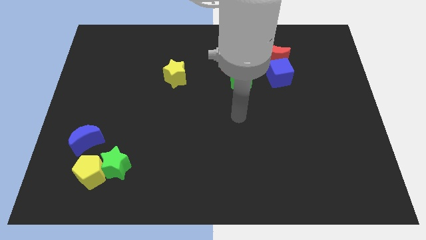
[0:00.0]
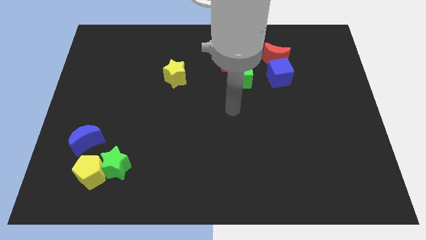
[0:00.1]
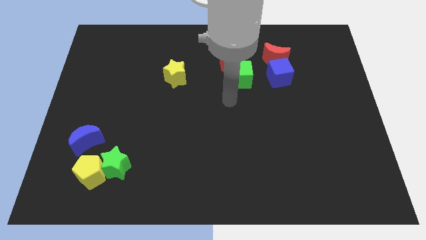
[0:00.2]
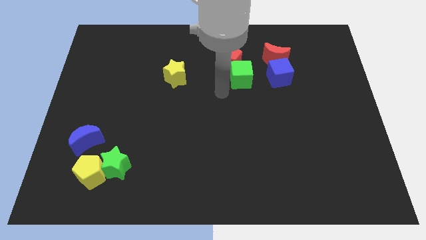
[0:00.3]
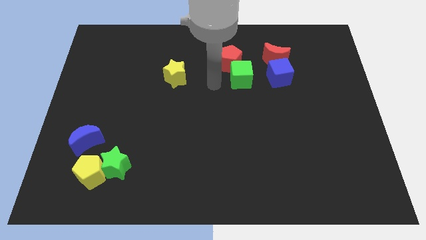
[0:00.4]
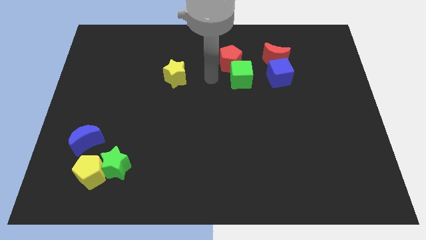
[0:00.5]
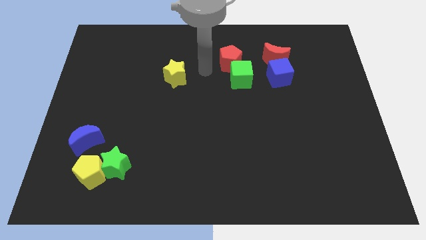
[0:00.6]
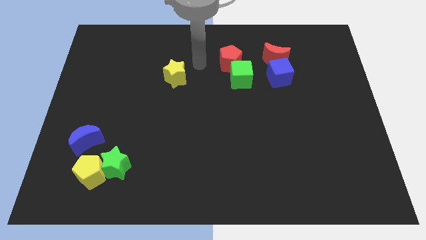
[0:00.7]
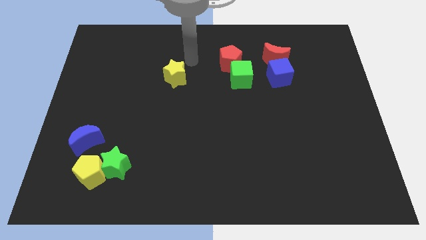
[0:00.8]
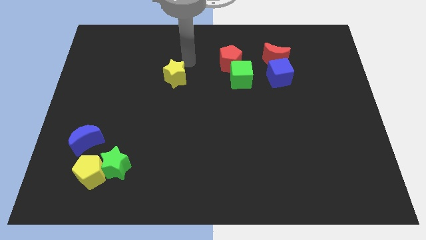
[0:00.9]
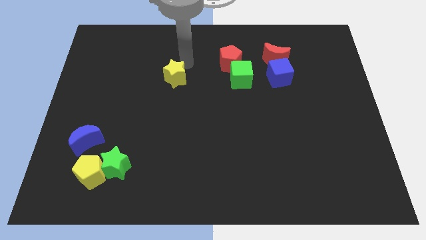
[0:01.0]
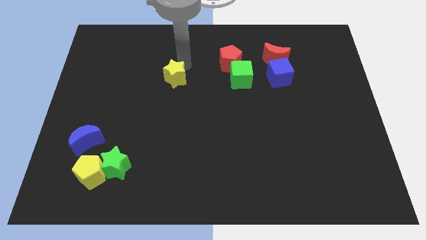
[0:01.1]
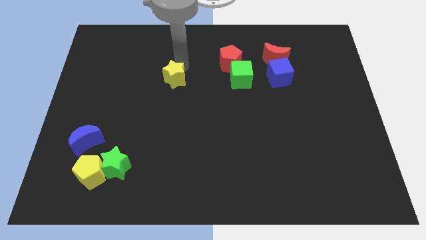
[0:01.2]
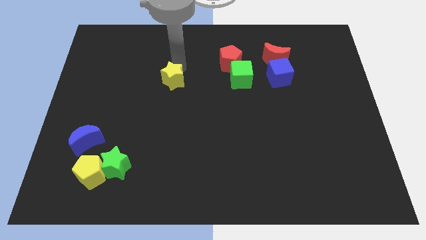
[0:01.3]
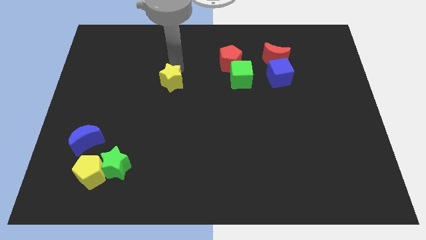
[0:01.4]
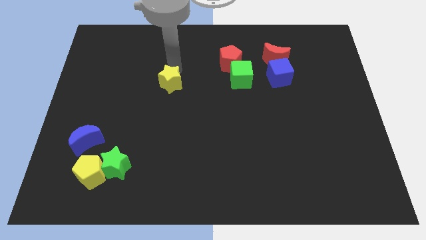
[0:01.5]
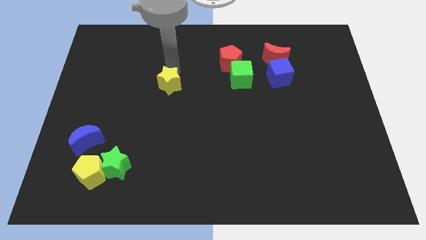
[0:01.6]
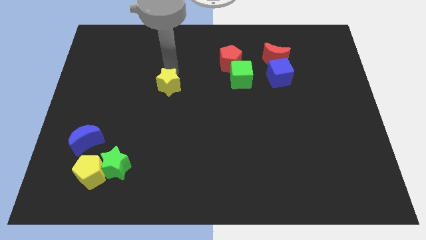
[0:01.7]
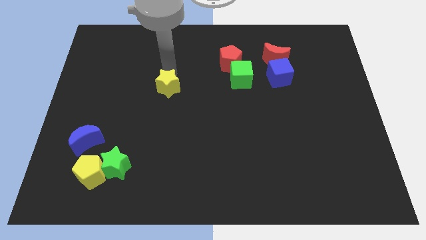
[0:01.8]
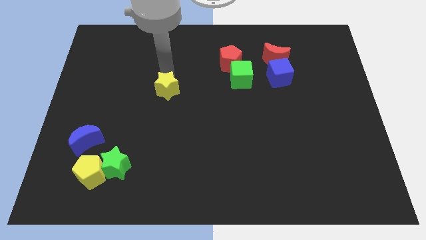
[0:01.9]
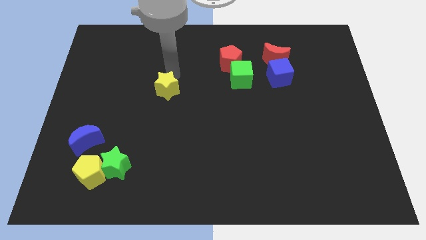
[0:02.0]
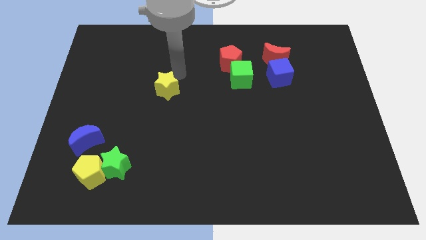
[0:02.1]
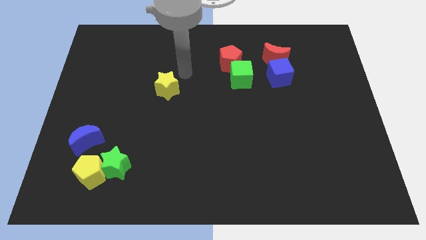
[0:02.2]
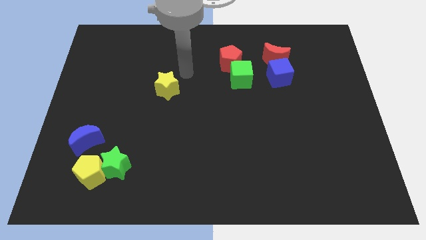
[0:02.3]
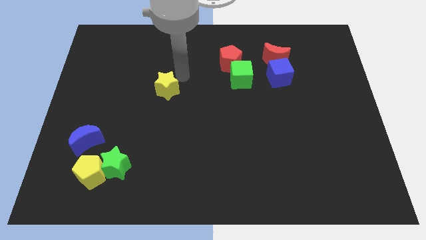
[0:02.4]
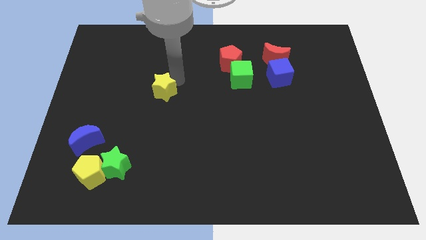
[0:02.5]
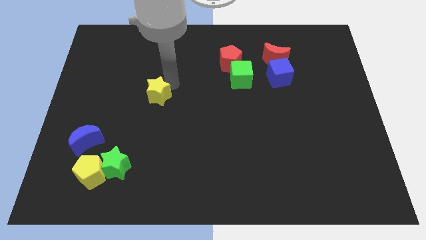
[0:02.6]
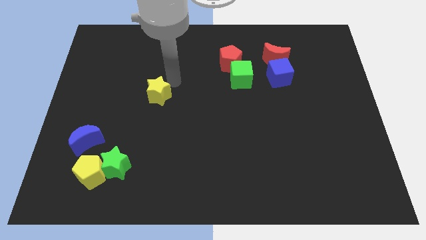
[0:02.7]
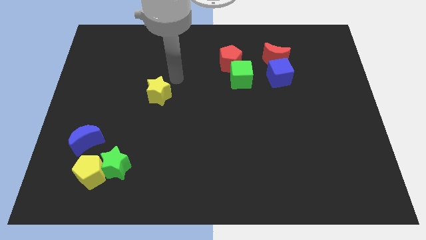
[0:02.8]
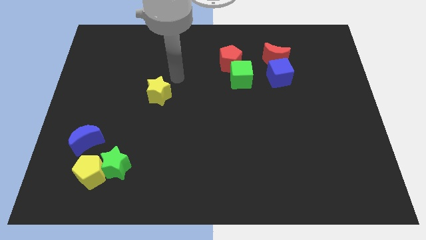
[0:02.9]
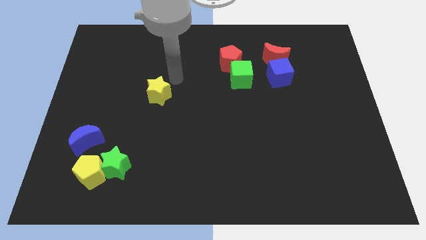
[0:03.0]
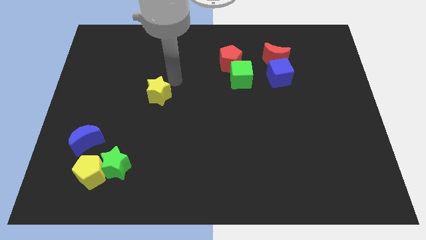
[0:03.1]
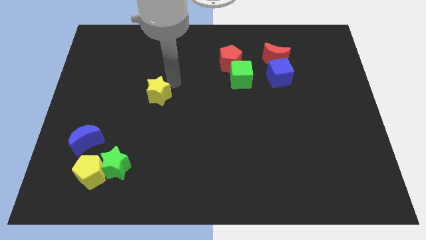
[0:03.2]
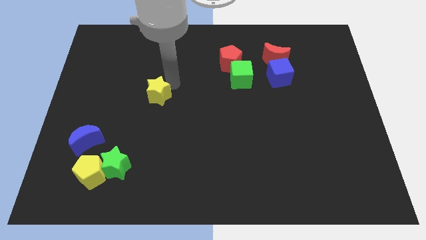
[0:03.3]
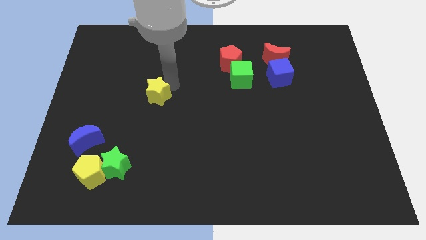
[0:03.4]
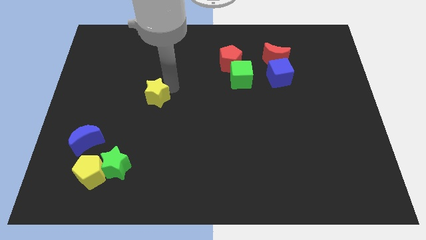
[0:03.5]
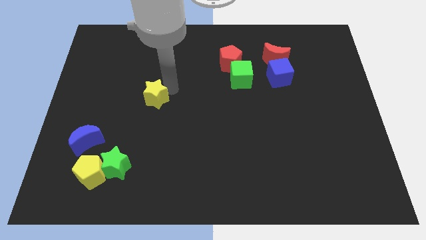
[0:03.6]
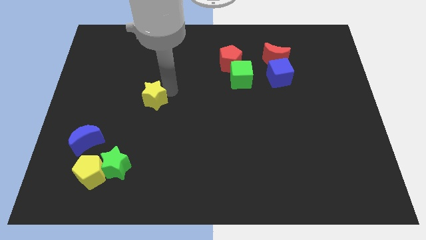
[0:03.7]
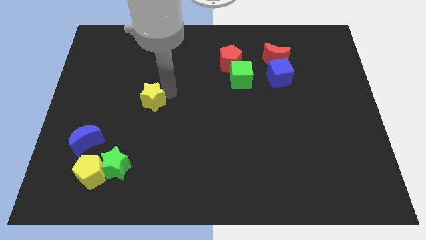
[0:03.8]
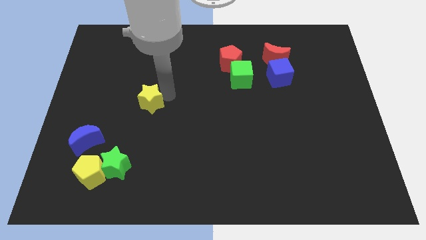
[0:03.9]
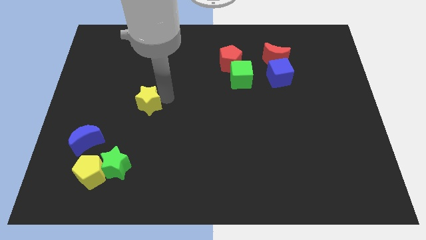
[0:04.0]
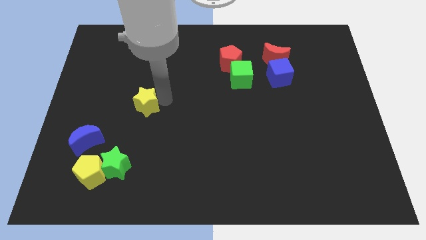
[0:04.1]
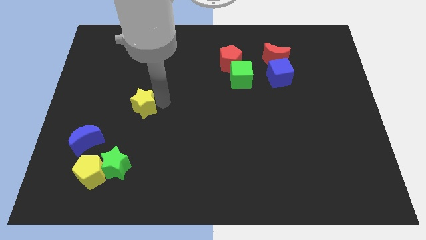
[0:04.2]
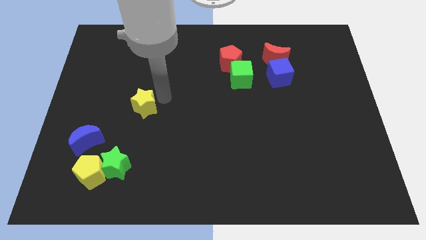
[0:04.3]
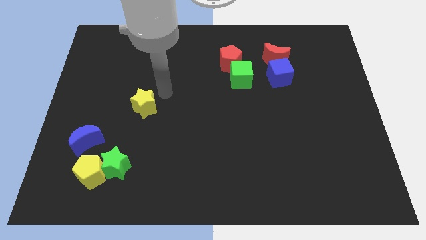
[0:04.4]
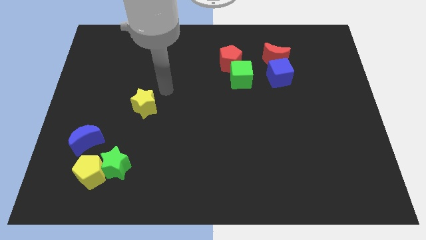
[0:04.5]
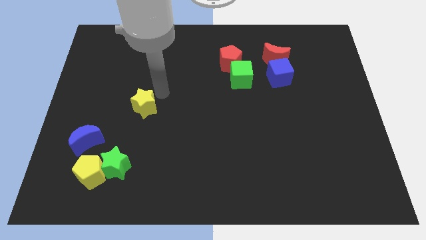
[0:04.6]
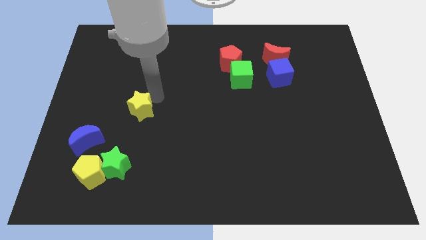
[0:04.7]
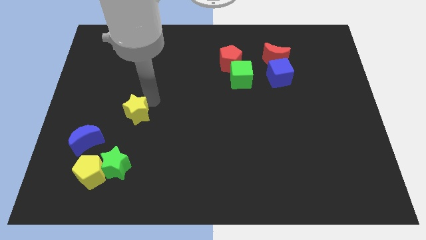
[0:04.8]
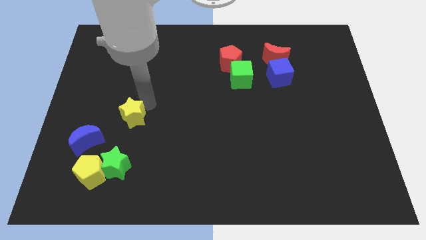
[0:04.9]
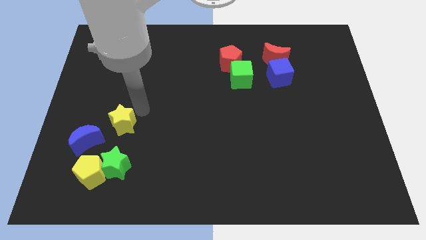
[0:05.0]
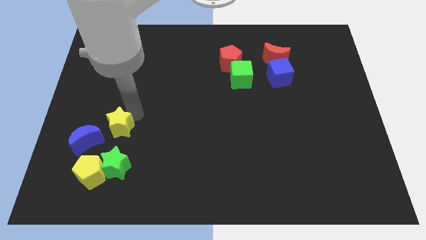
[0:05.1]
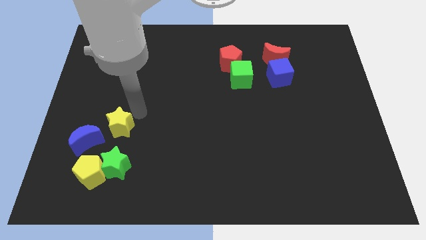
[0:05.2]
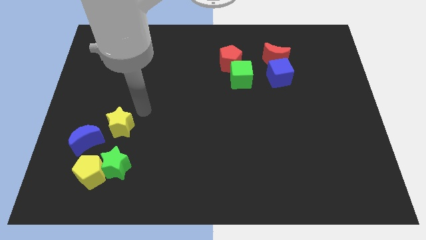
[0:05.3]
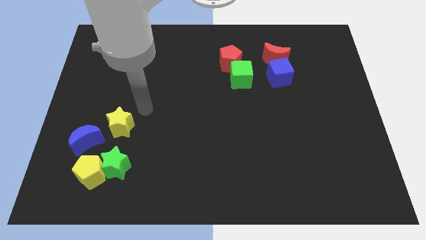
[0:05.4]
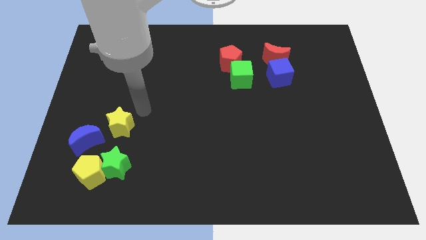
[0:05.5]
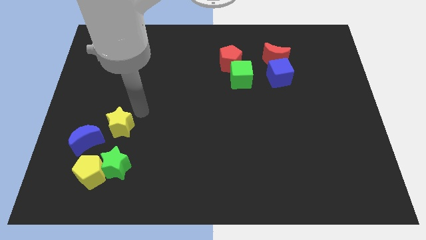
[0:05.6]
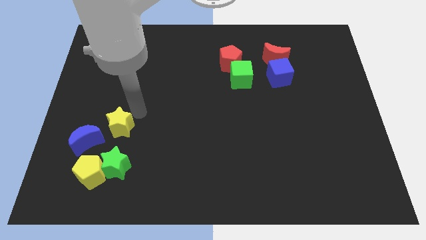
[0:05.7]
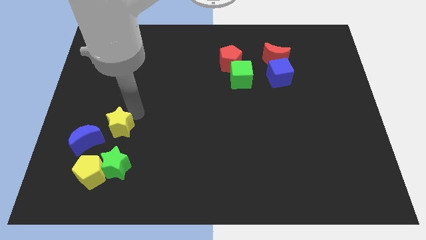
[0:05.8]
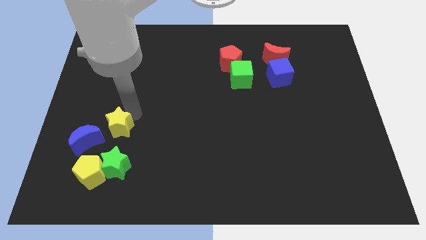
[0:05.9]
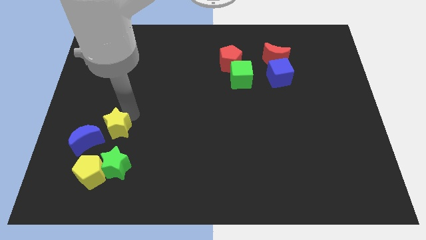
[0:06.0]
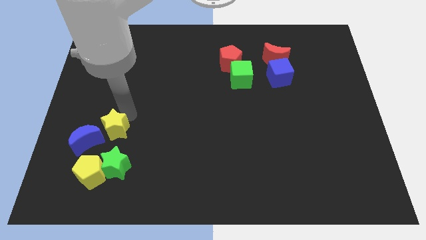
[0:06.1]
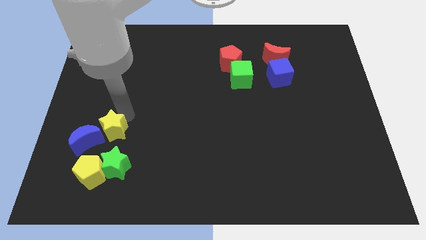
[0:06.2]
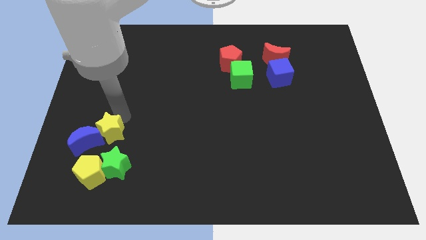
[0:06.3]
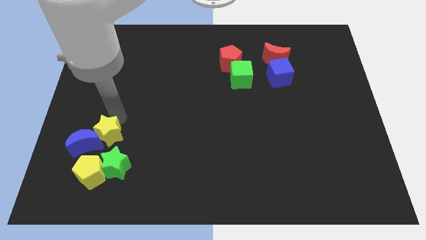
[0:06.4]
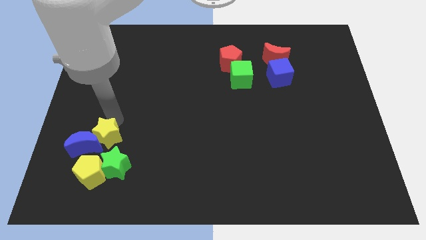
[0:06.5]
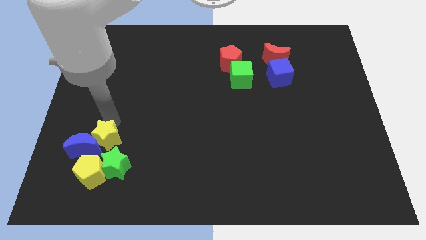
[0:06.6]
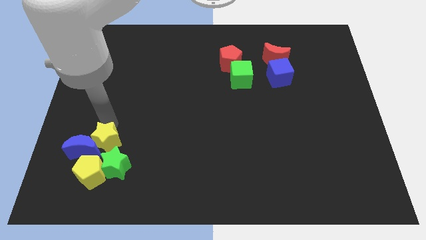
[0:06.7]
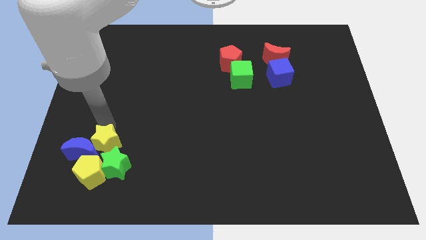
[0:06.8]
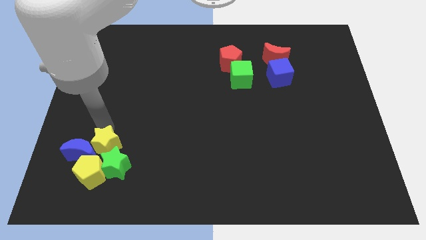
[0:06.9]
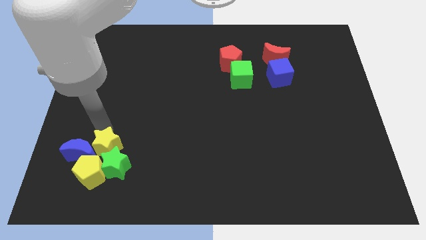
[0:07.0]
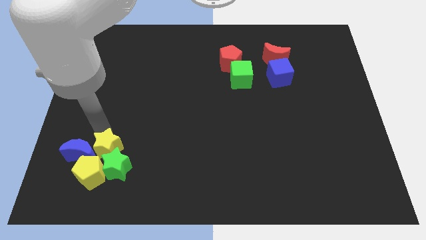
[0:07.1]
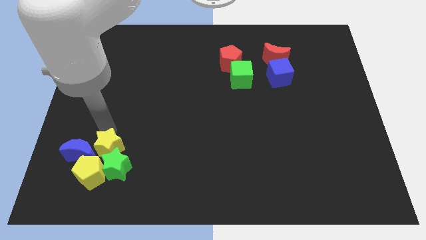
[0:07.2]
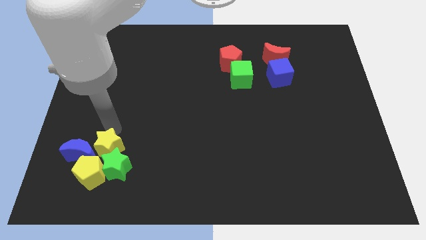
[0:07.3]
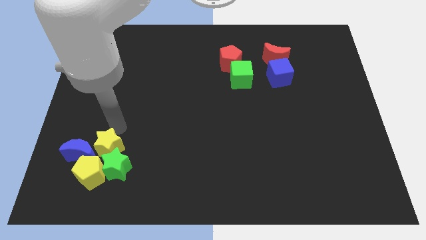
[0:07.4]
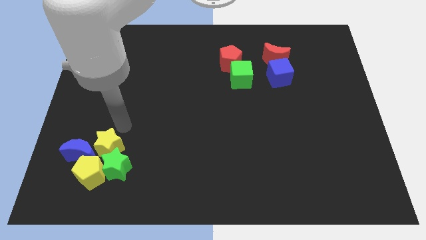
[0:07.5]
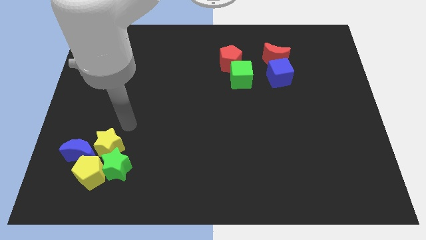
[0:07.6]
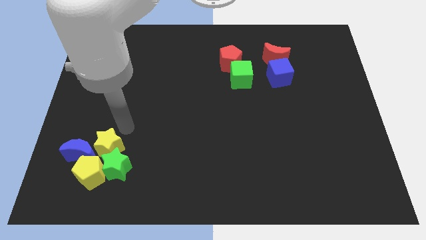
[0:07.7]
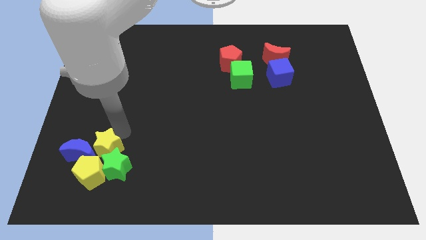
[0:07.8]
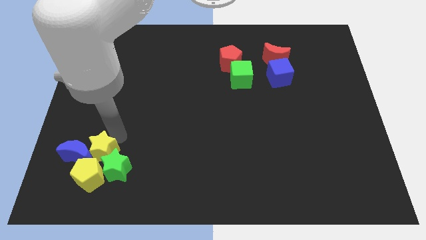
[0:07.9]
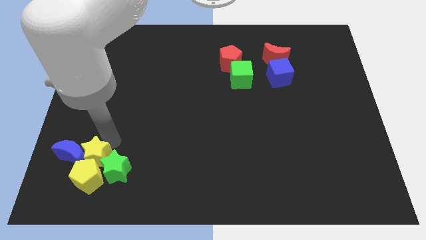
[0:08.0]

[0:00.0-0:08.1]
push the yellow star to the yellow pentagon
